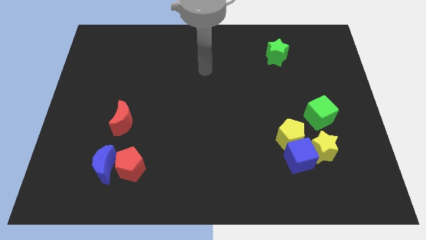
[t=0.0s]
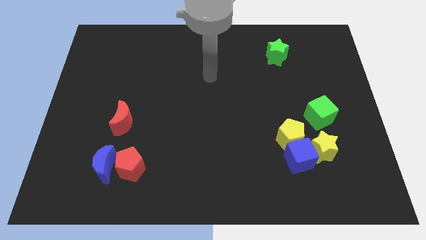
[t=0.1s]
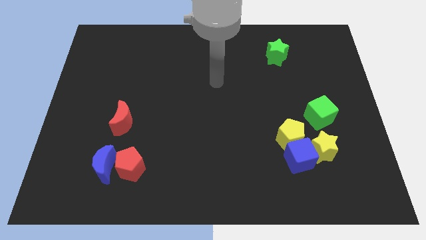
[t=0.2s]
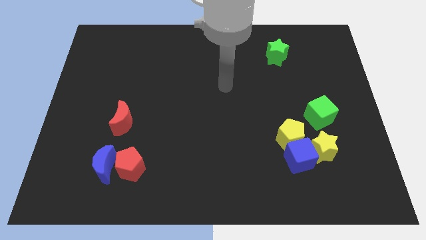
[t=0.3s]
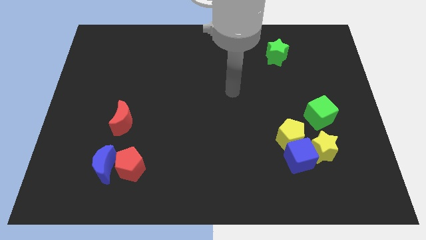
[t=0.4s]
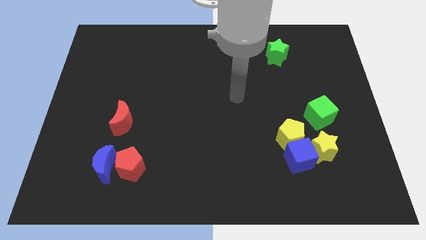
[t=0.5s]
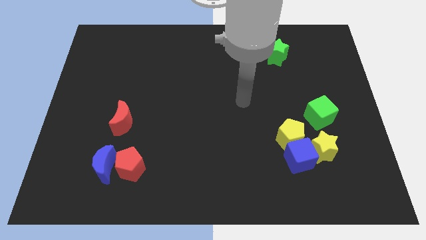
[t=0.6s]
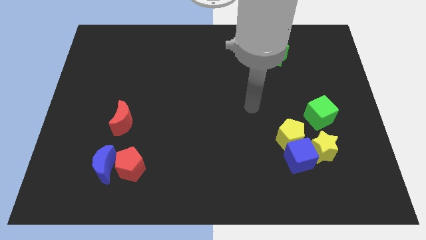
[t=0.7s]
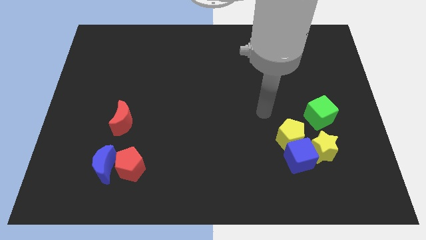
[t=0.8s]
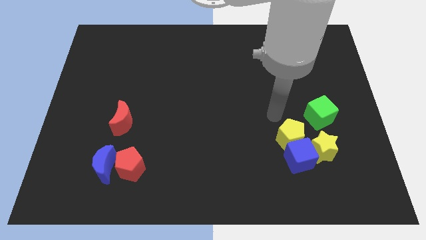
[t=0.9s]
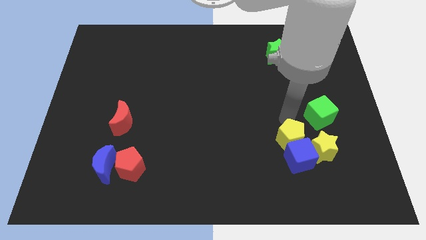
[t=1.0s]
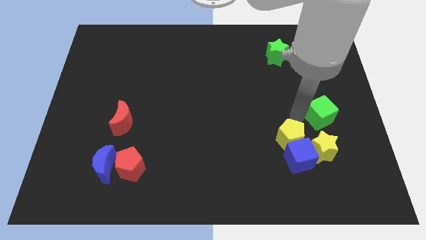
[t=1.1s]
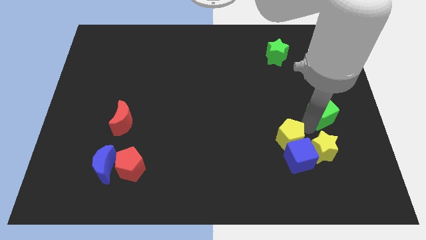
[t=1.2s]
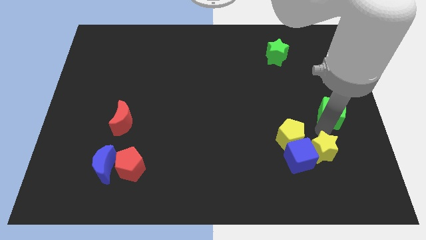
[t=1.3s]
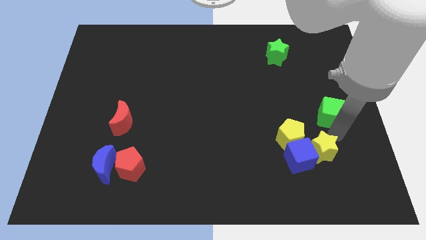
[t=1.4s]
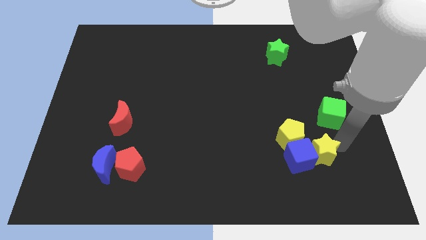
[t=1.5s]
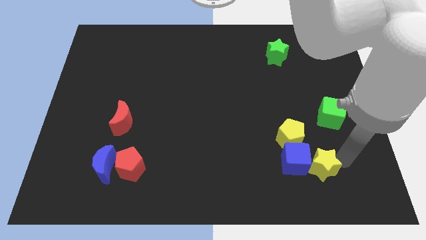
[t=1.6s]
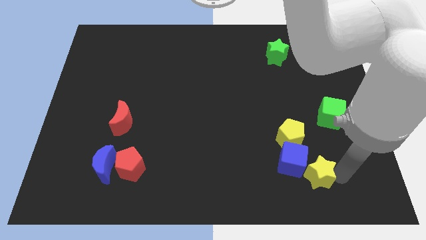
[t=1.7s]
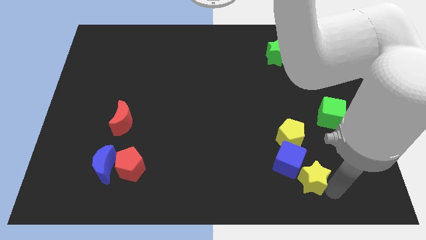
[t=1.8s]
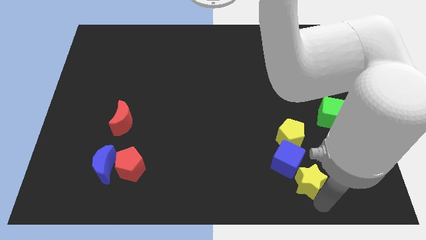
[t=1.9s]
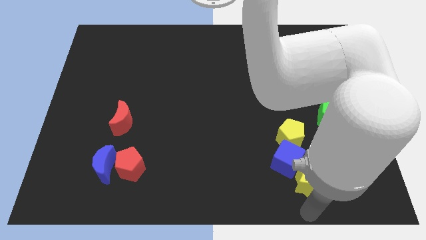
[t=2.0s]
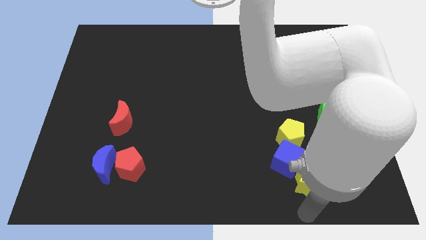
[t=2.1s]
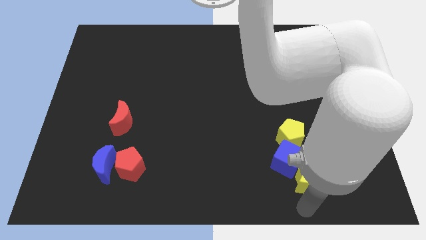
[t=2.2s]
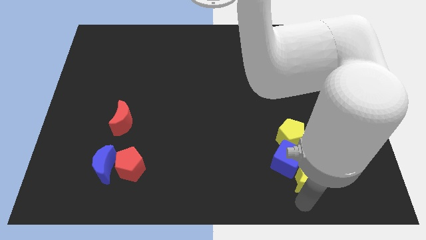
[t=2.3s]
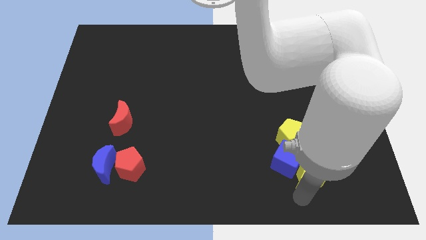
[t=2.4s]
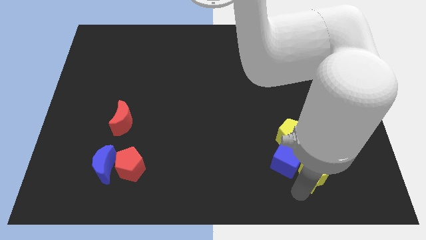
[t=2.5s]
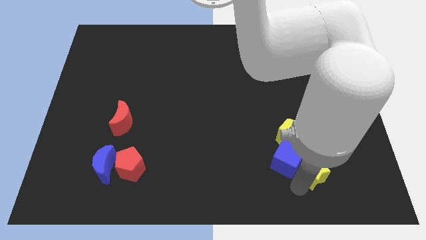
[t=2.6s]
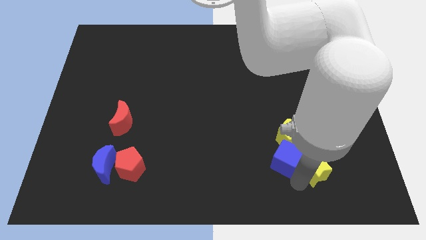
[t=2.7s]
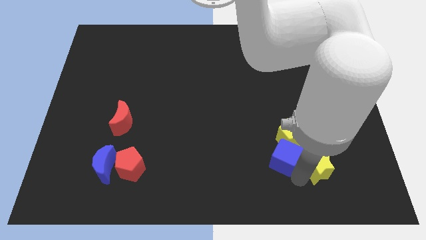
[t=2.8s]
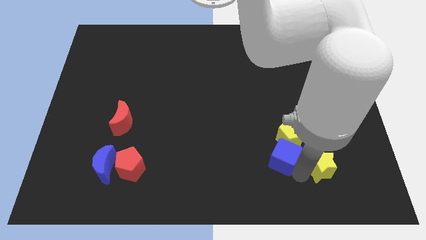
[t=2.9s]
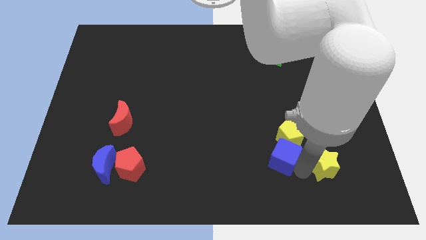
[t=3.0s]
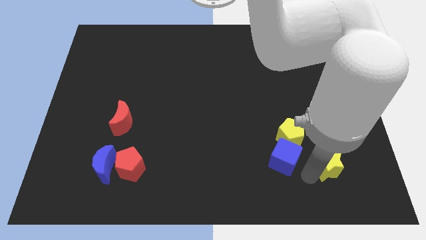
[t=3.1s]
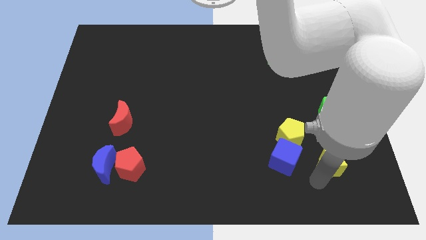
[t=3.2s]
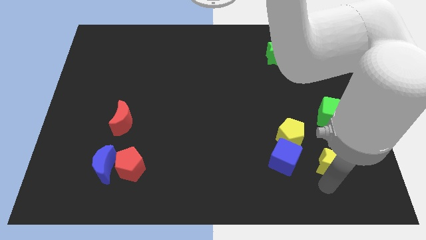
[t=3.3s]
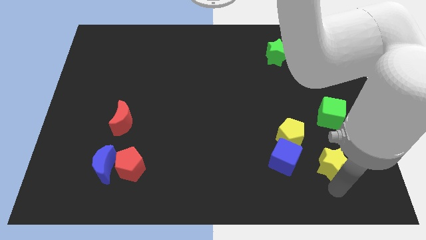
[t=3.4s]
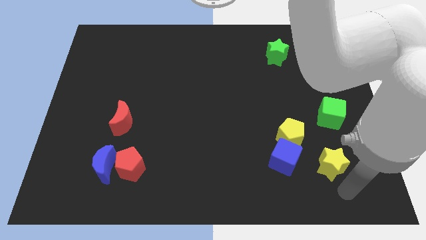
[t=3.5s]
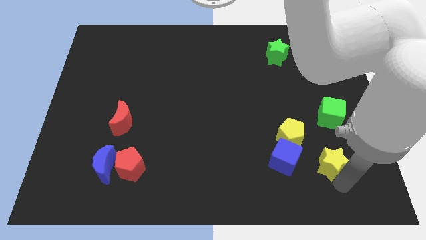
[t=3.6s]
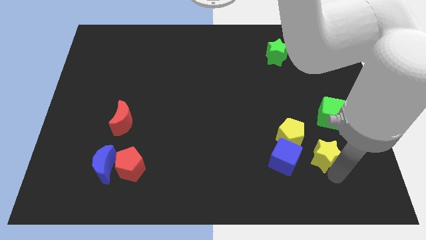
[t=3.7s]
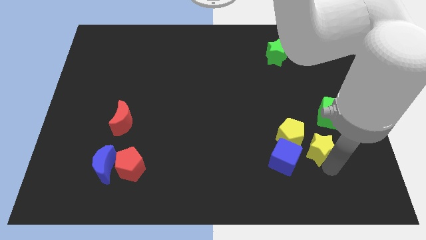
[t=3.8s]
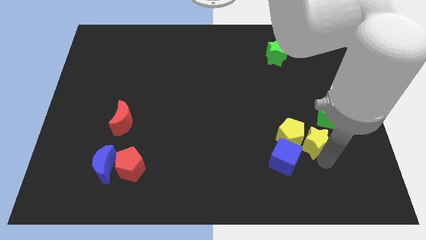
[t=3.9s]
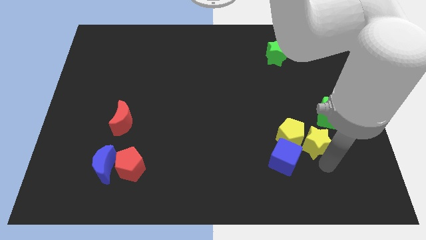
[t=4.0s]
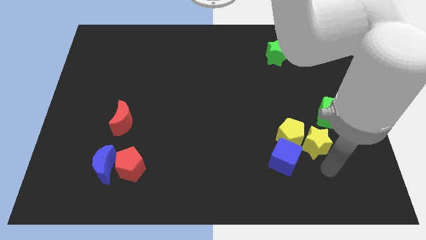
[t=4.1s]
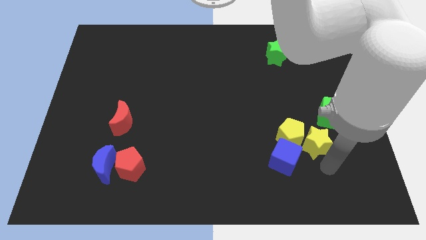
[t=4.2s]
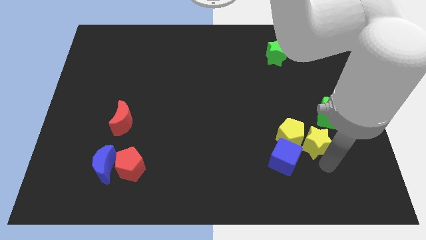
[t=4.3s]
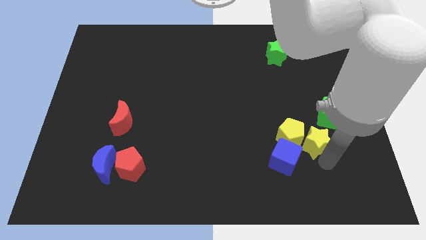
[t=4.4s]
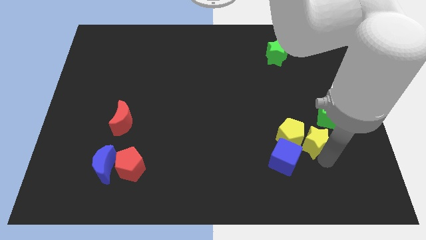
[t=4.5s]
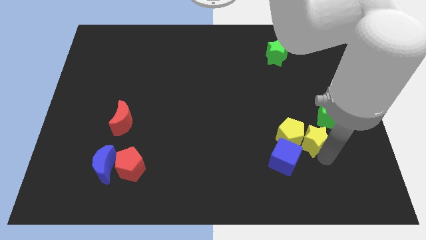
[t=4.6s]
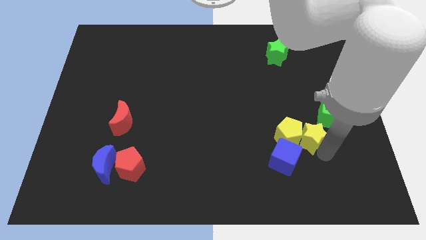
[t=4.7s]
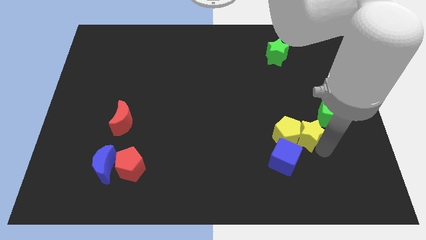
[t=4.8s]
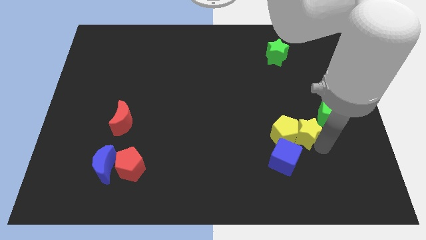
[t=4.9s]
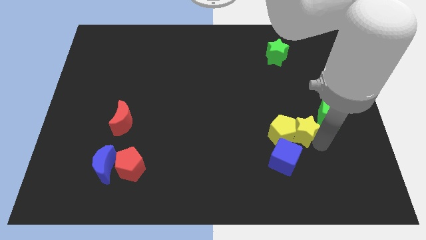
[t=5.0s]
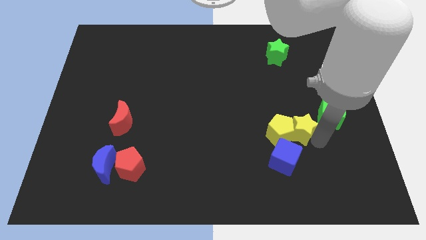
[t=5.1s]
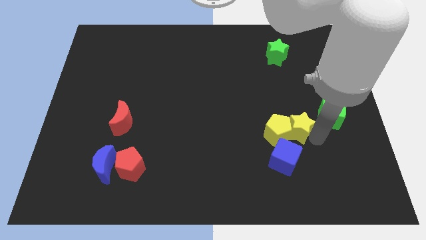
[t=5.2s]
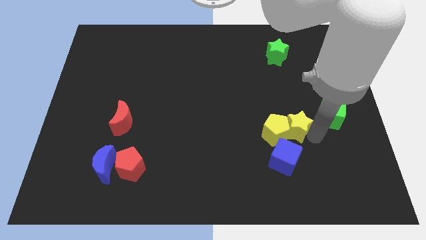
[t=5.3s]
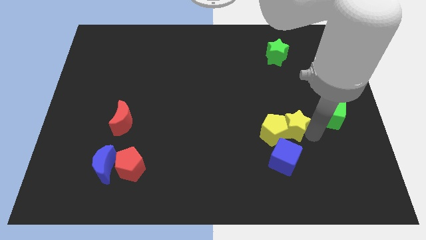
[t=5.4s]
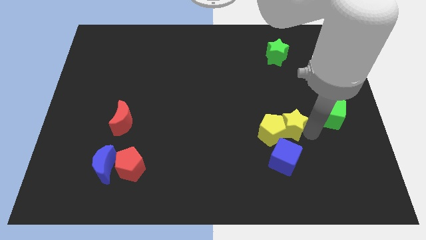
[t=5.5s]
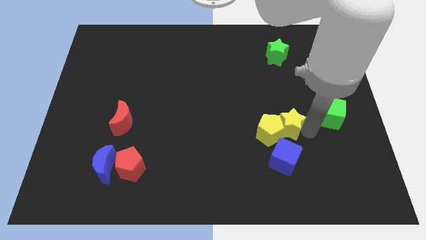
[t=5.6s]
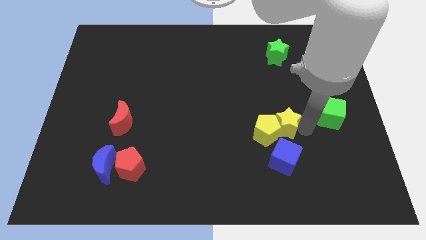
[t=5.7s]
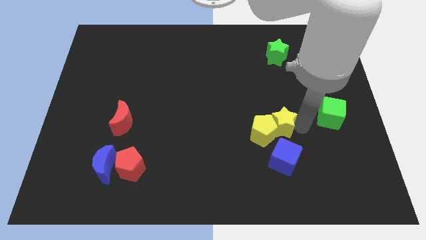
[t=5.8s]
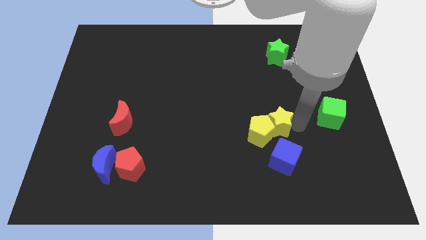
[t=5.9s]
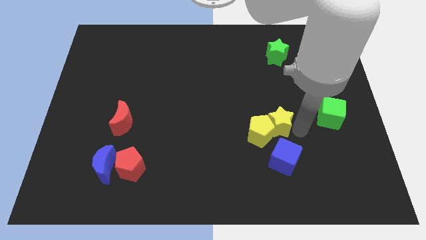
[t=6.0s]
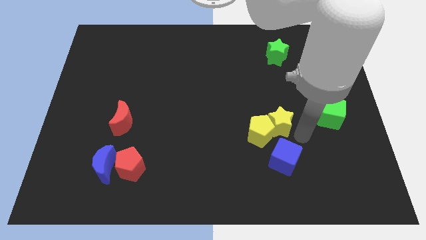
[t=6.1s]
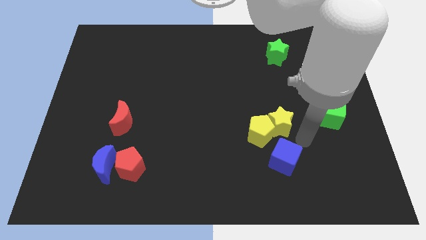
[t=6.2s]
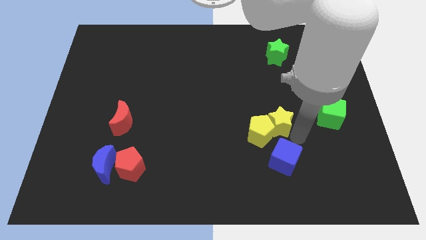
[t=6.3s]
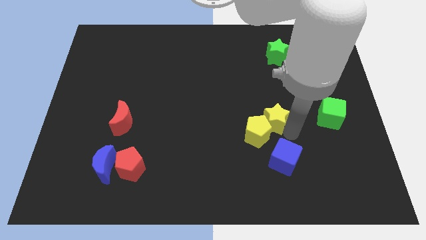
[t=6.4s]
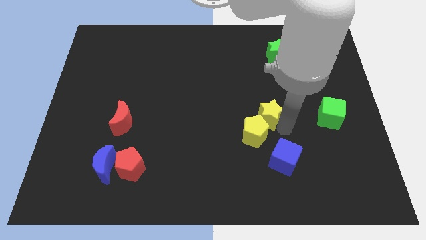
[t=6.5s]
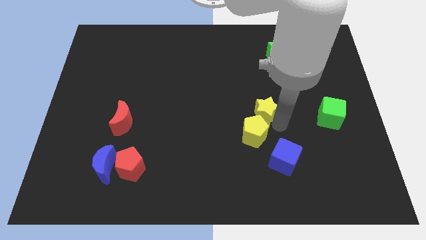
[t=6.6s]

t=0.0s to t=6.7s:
push the yellow star to the middle of the board

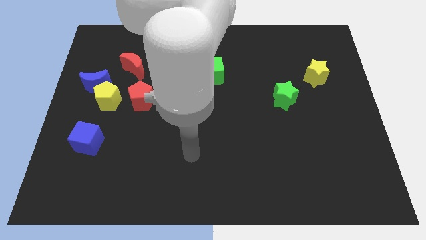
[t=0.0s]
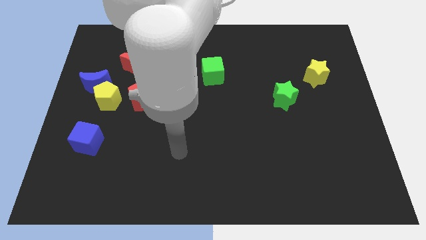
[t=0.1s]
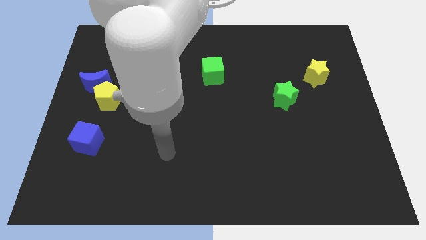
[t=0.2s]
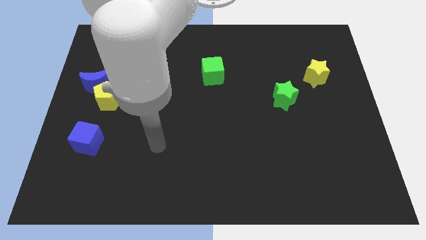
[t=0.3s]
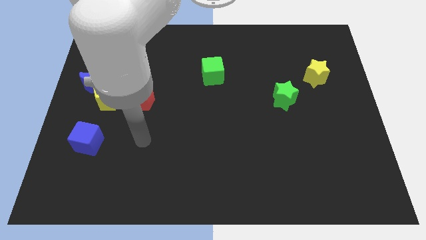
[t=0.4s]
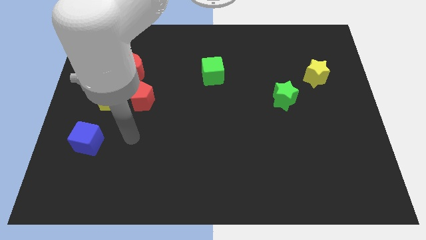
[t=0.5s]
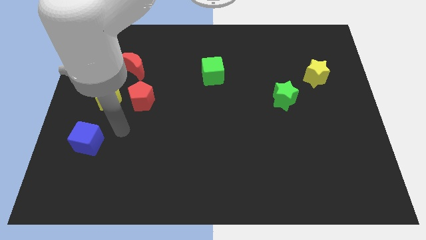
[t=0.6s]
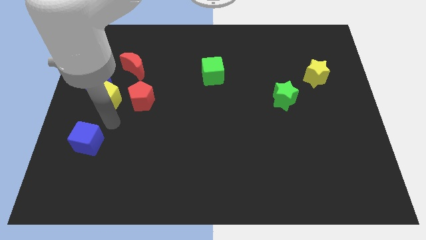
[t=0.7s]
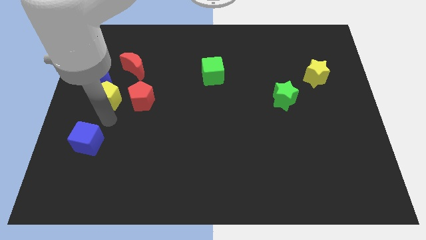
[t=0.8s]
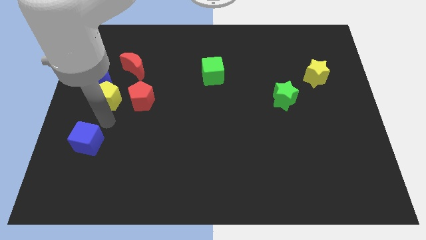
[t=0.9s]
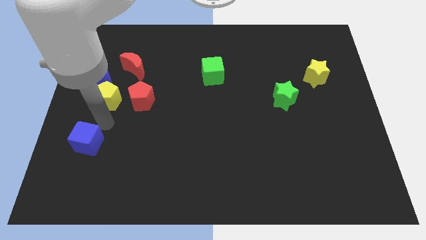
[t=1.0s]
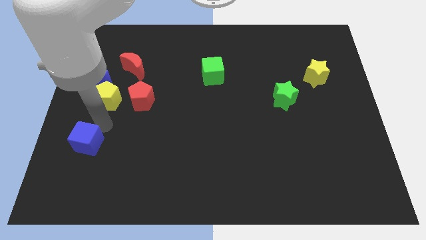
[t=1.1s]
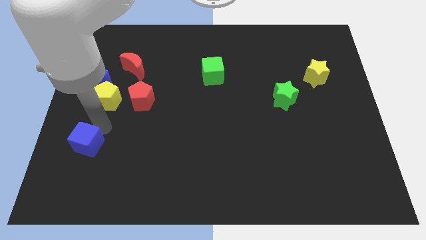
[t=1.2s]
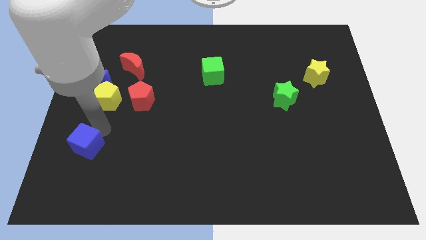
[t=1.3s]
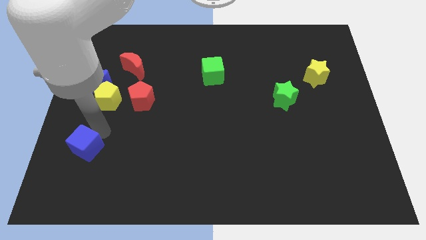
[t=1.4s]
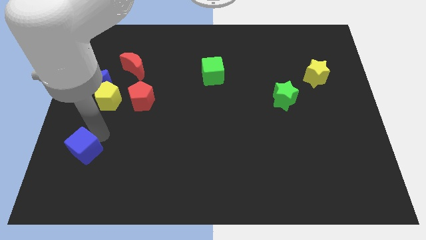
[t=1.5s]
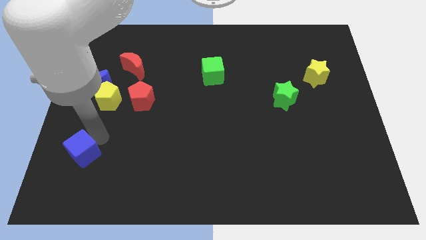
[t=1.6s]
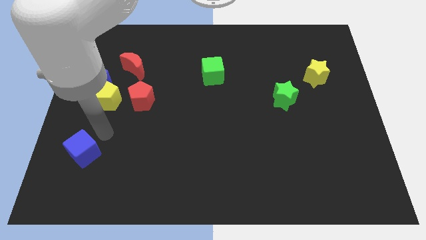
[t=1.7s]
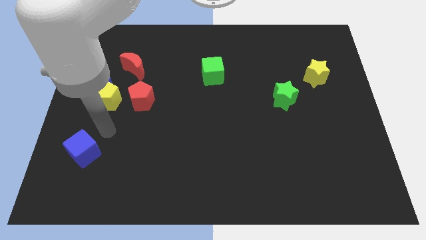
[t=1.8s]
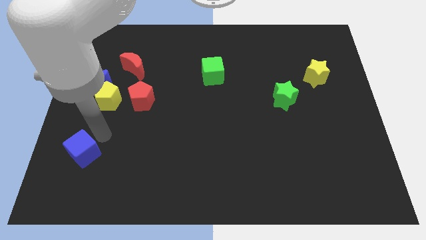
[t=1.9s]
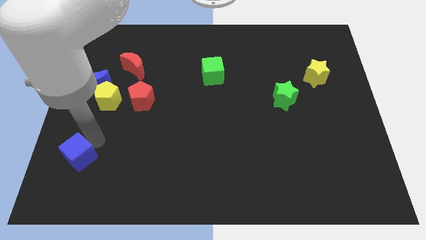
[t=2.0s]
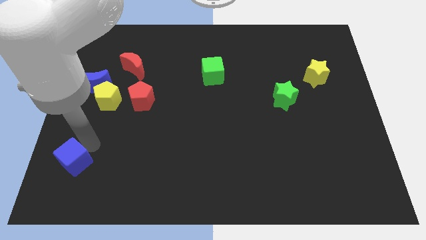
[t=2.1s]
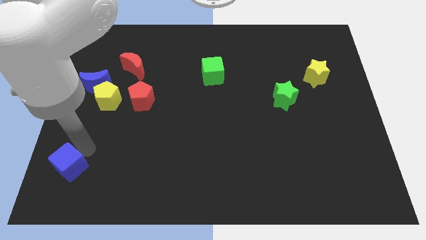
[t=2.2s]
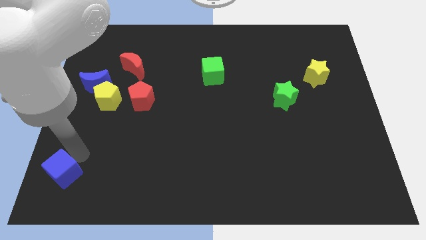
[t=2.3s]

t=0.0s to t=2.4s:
move the blue cube to the bottom left of the board
